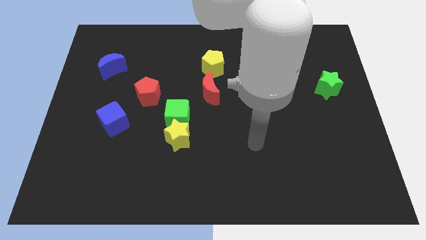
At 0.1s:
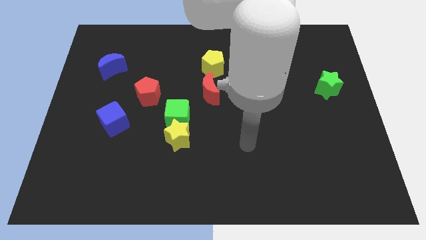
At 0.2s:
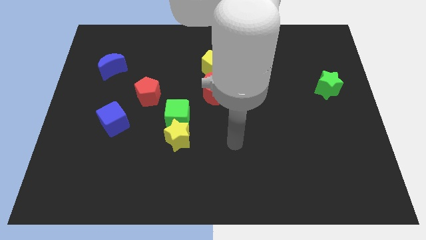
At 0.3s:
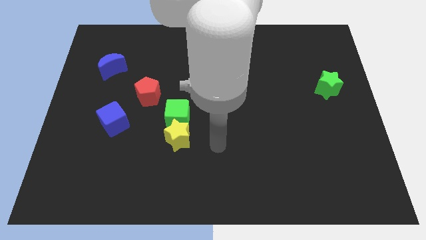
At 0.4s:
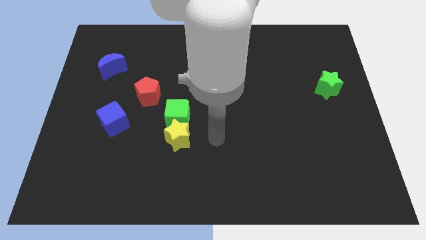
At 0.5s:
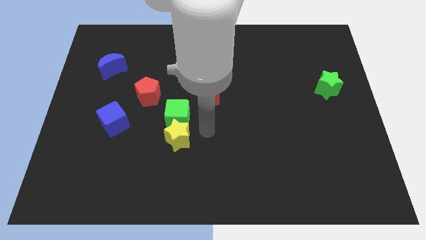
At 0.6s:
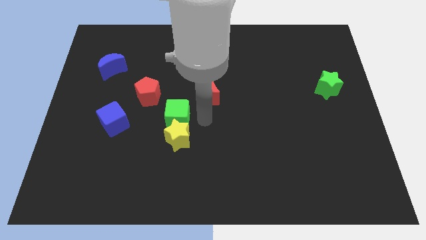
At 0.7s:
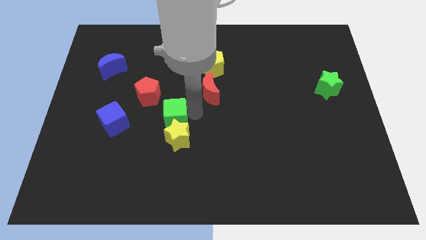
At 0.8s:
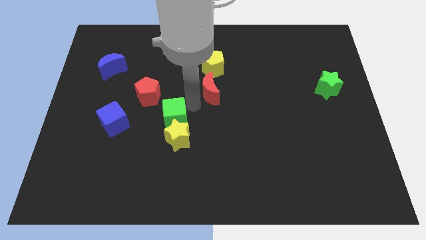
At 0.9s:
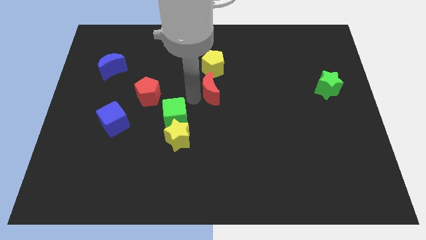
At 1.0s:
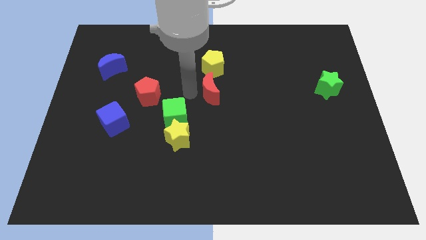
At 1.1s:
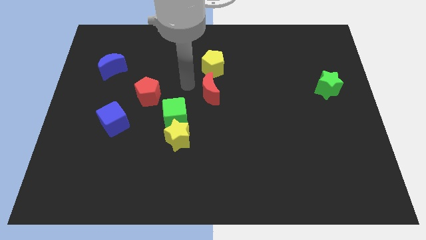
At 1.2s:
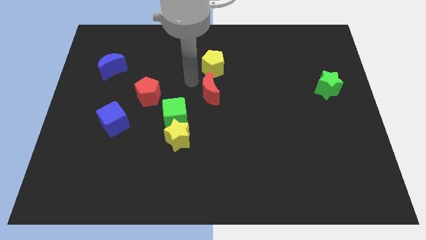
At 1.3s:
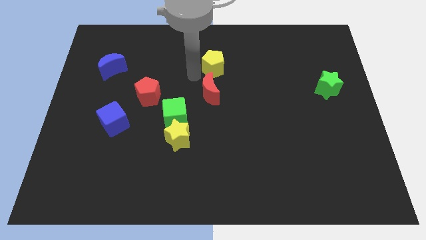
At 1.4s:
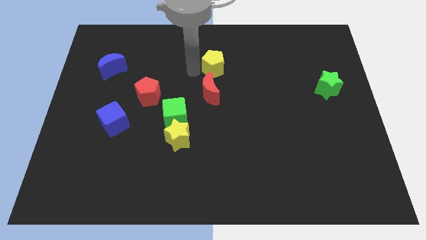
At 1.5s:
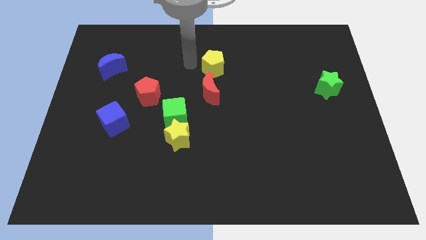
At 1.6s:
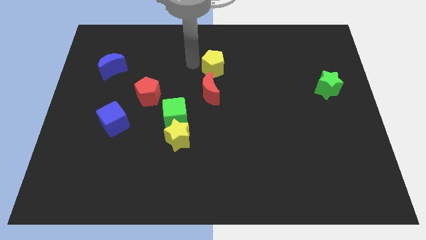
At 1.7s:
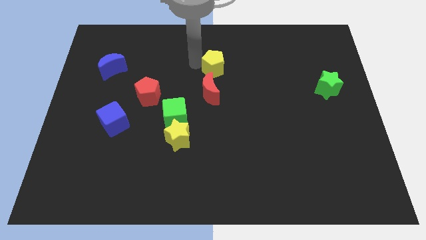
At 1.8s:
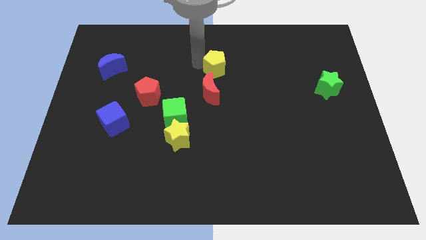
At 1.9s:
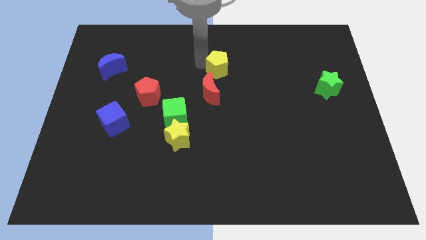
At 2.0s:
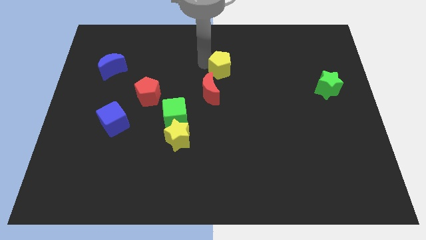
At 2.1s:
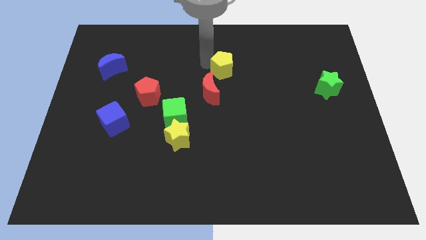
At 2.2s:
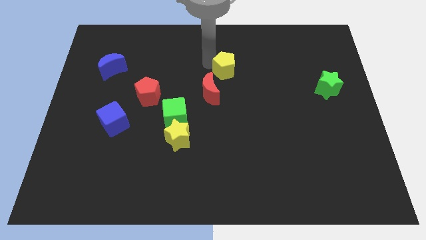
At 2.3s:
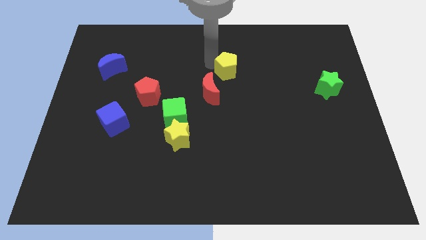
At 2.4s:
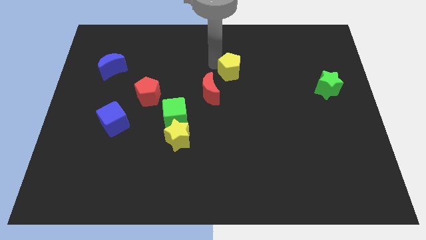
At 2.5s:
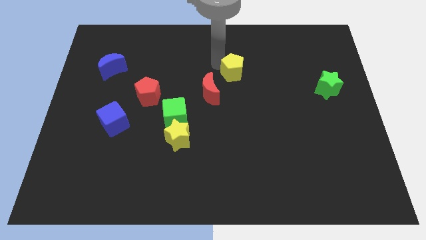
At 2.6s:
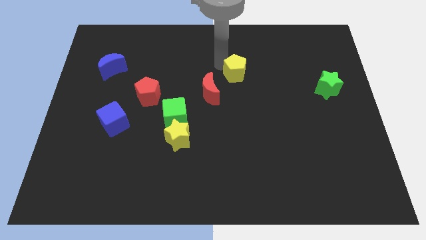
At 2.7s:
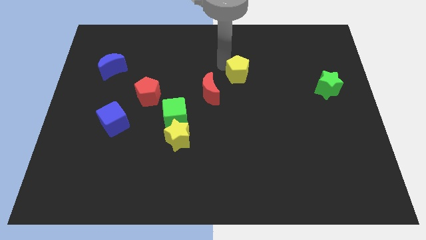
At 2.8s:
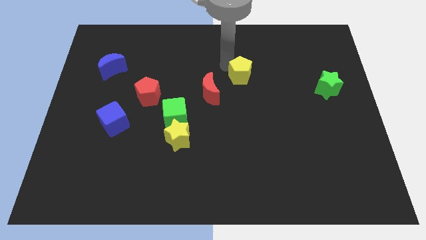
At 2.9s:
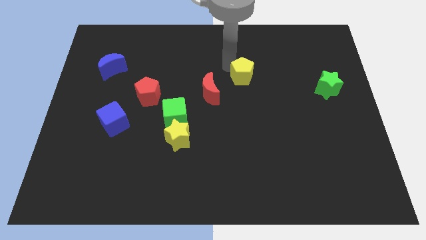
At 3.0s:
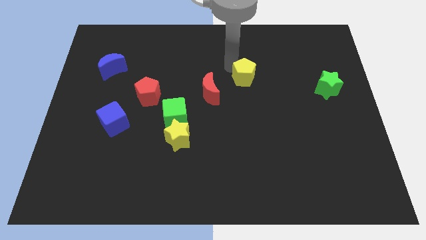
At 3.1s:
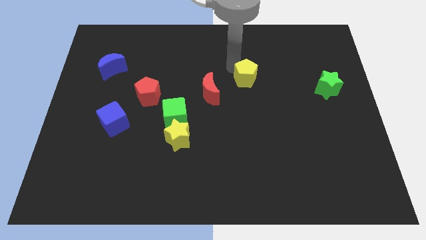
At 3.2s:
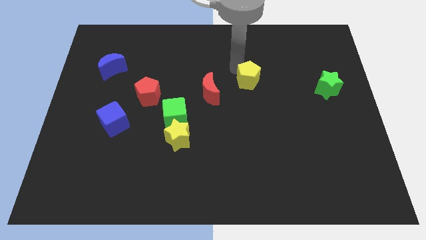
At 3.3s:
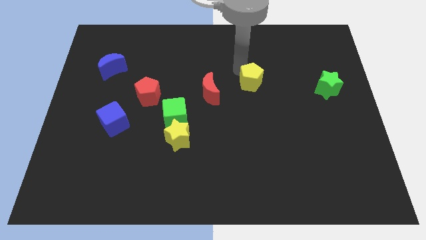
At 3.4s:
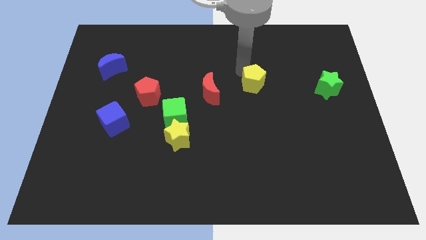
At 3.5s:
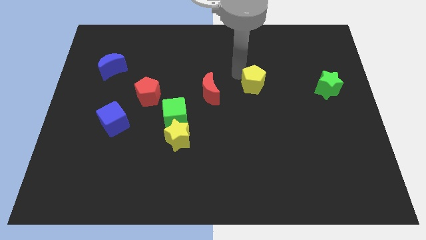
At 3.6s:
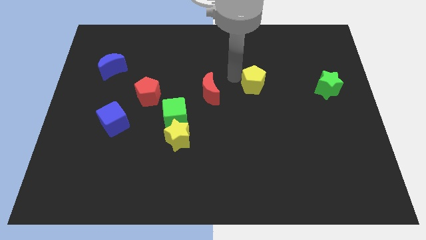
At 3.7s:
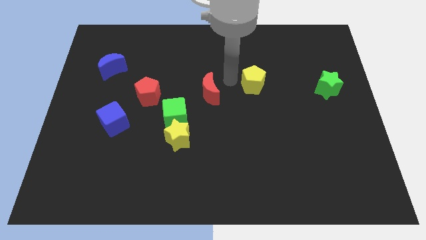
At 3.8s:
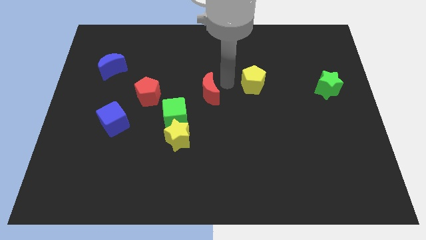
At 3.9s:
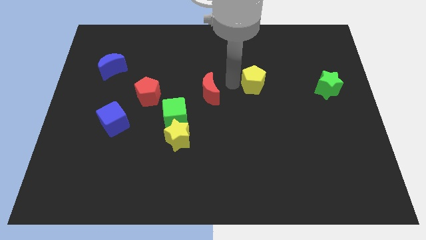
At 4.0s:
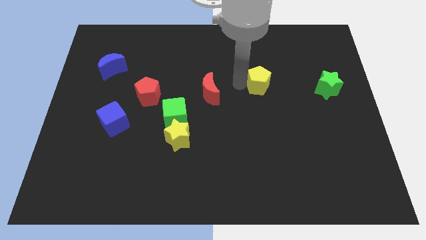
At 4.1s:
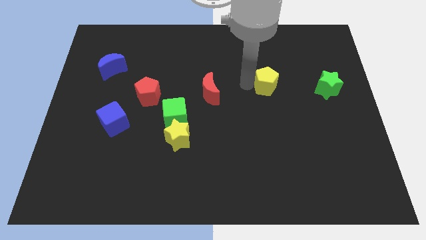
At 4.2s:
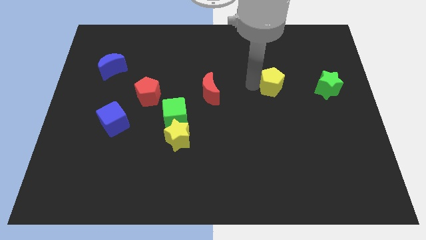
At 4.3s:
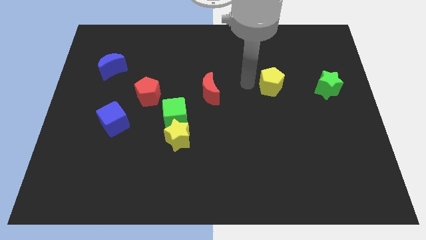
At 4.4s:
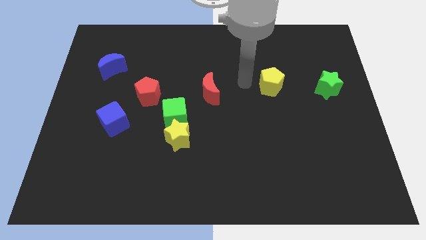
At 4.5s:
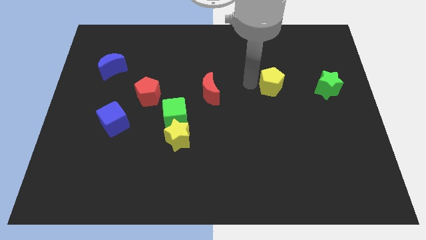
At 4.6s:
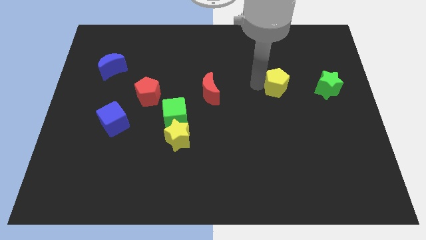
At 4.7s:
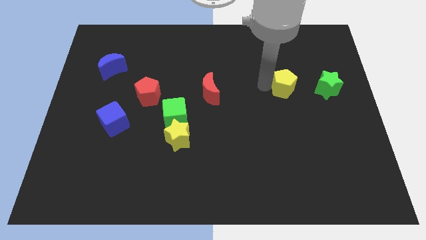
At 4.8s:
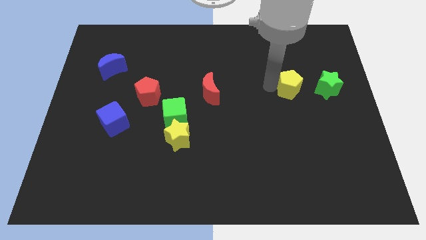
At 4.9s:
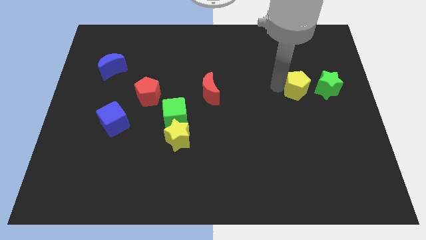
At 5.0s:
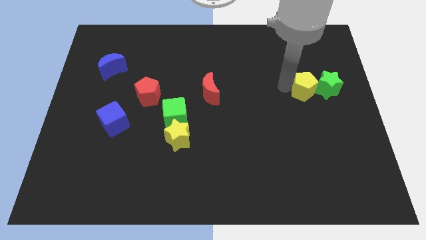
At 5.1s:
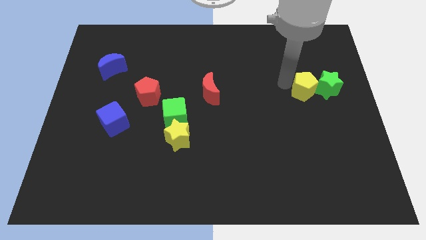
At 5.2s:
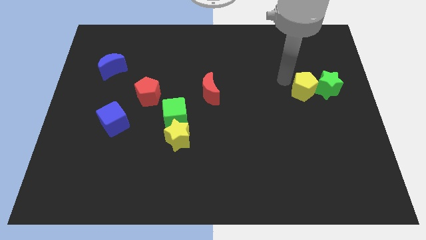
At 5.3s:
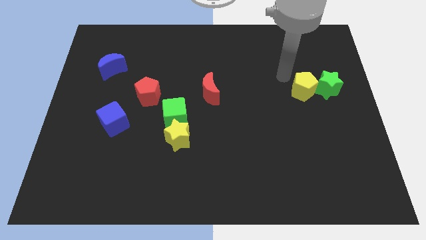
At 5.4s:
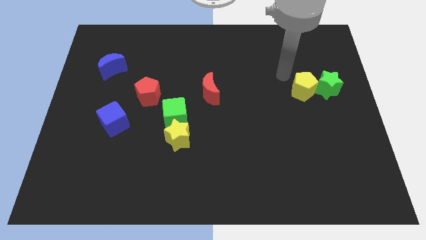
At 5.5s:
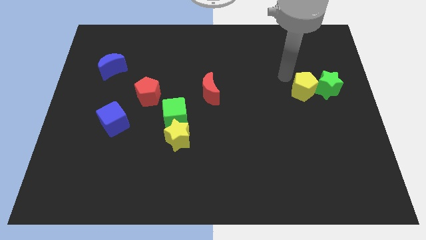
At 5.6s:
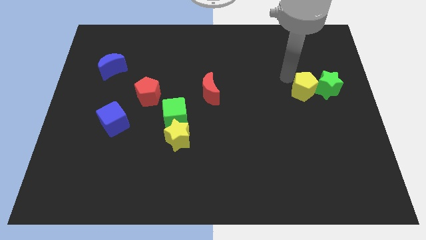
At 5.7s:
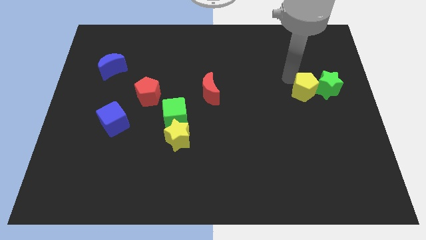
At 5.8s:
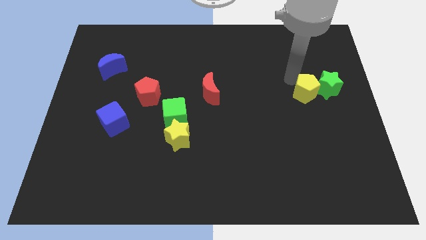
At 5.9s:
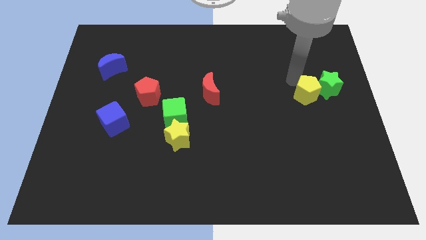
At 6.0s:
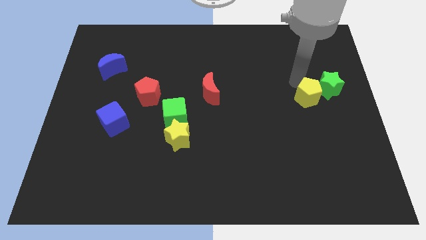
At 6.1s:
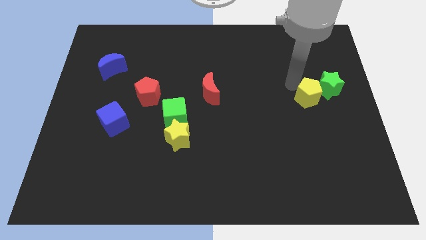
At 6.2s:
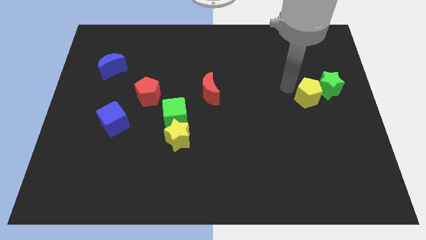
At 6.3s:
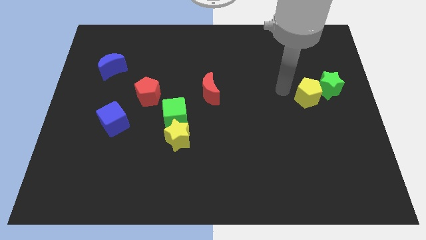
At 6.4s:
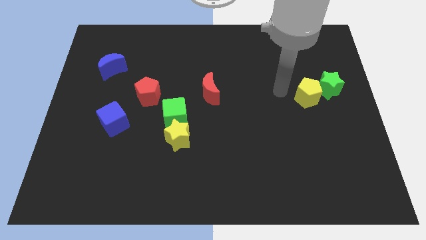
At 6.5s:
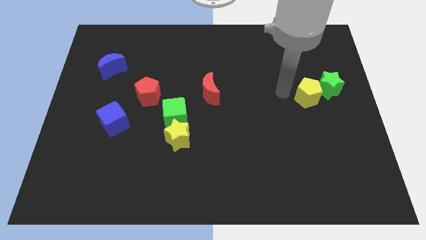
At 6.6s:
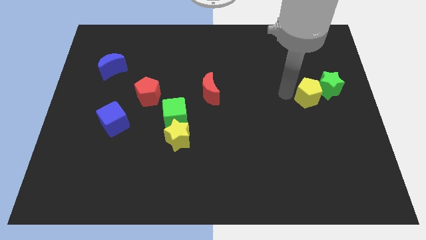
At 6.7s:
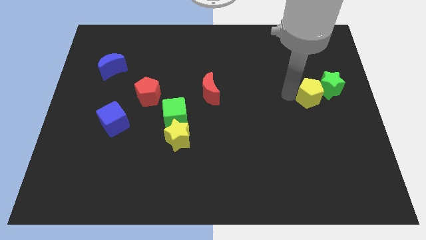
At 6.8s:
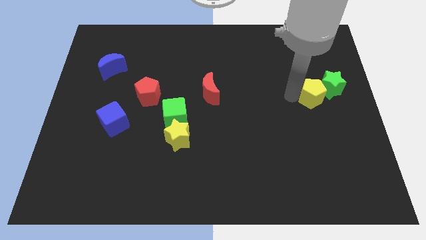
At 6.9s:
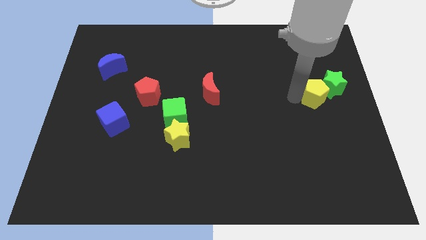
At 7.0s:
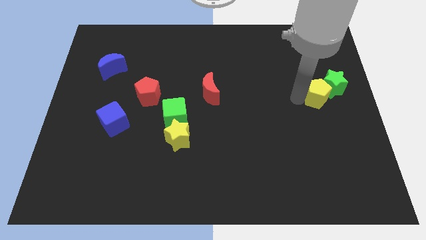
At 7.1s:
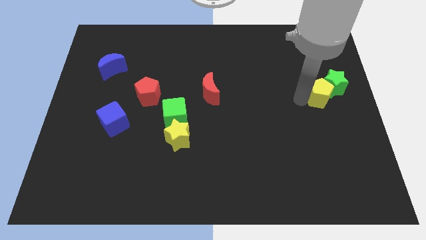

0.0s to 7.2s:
move the yellow pentagon to the center right
